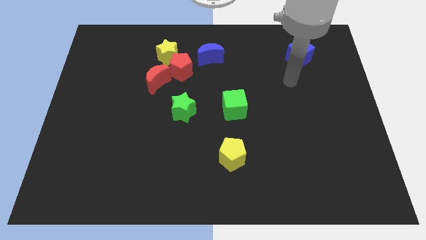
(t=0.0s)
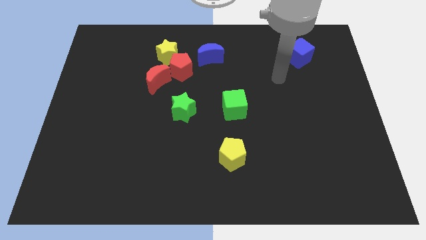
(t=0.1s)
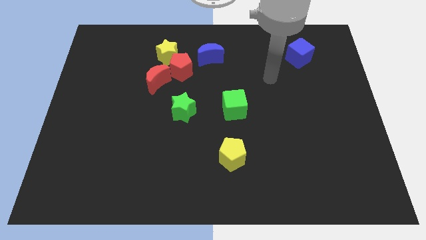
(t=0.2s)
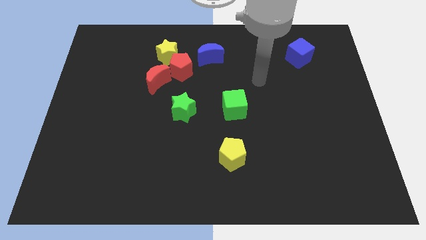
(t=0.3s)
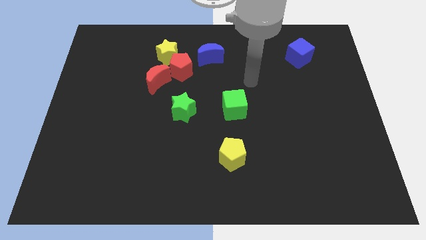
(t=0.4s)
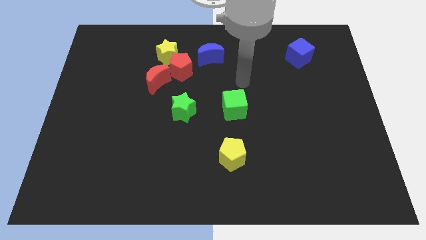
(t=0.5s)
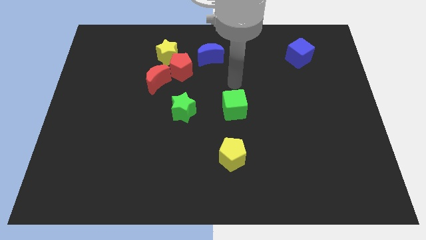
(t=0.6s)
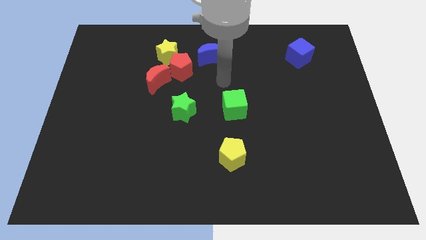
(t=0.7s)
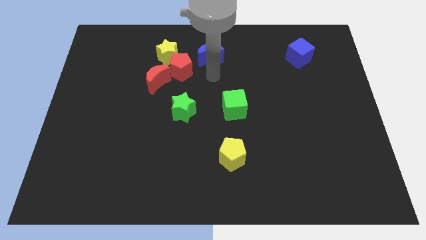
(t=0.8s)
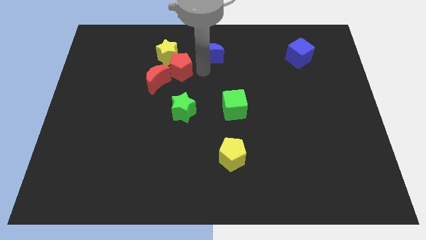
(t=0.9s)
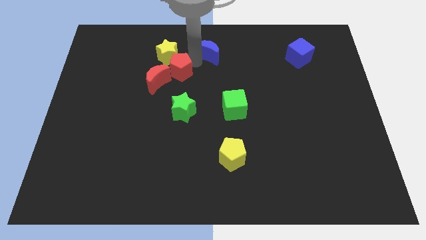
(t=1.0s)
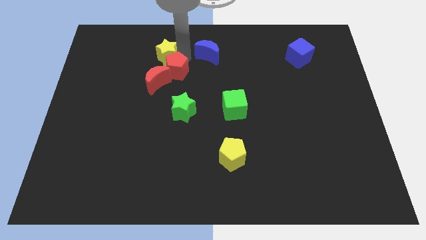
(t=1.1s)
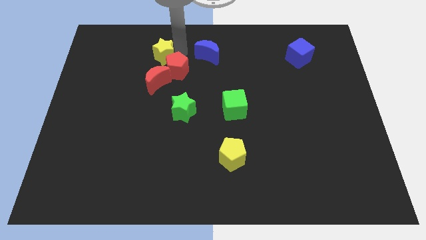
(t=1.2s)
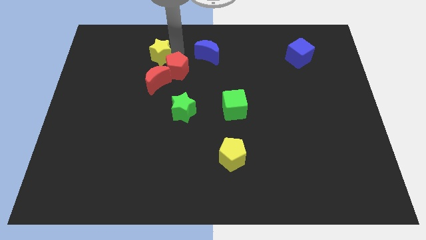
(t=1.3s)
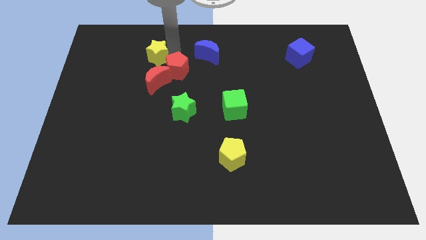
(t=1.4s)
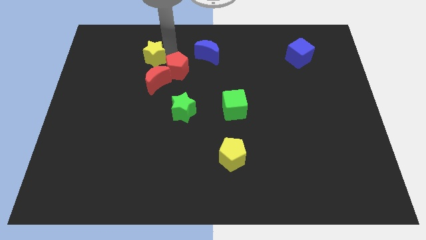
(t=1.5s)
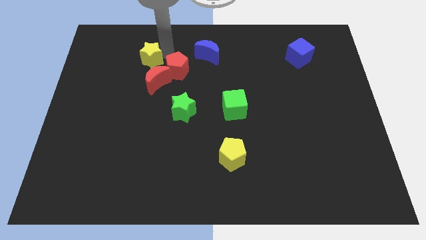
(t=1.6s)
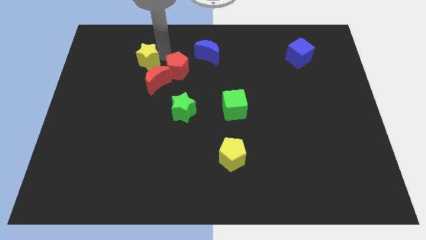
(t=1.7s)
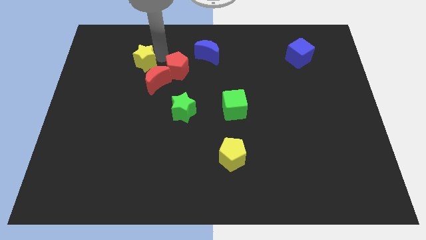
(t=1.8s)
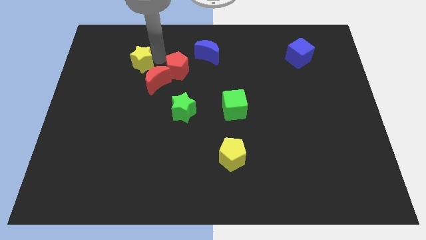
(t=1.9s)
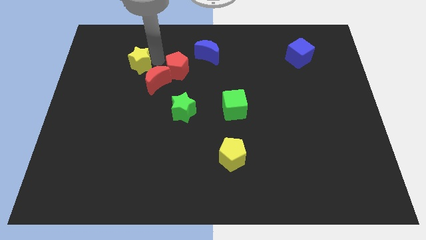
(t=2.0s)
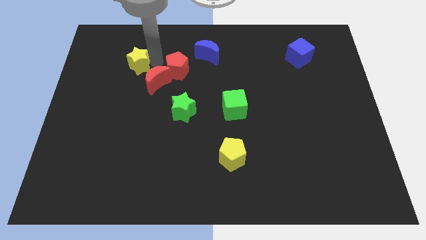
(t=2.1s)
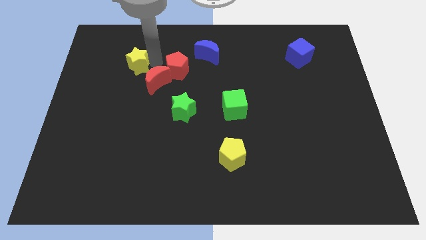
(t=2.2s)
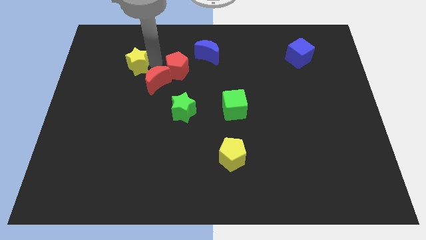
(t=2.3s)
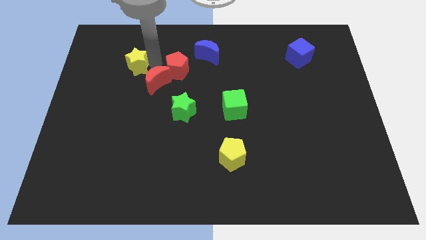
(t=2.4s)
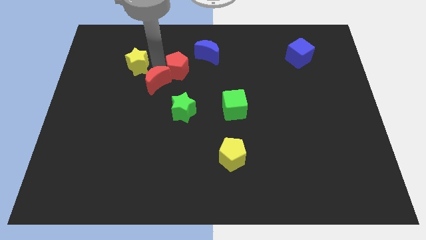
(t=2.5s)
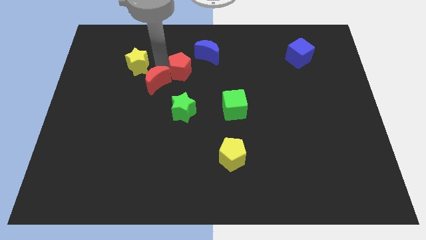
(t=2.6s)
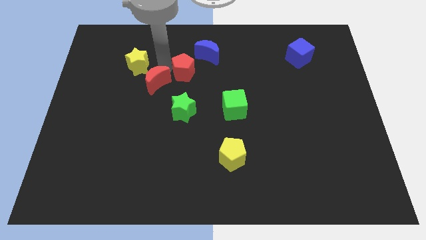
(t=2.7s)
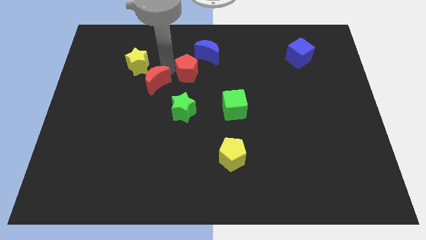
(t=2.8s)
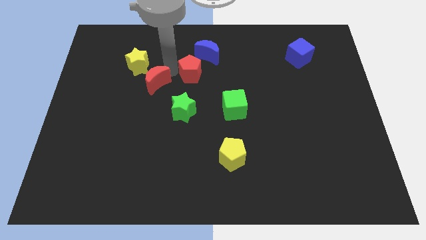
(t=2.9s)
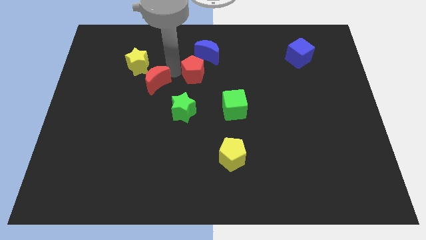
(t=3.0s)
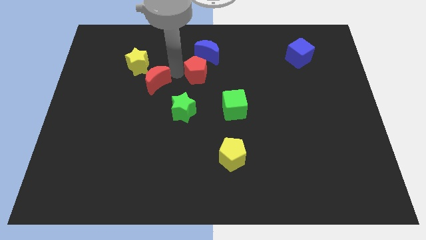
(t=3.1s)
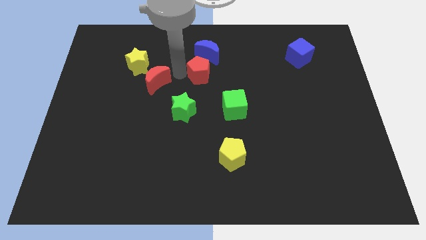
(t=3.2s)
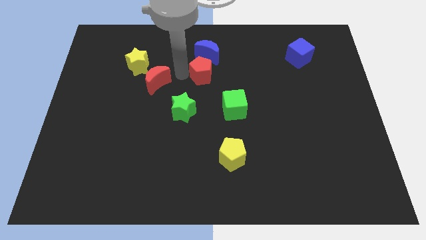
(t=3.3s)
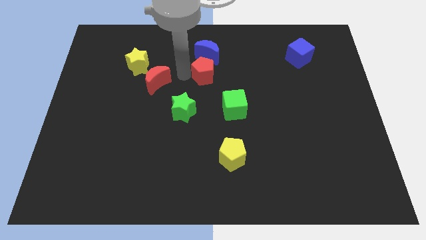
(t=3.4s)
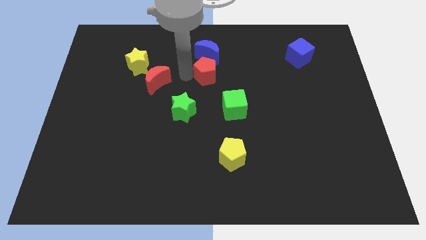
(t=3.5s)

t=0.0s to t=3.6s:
pull the red pentagon apart from the yellow star, red moon, and blue moon

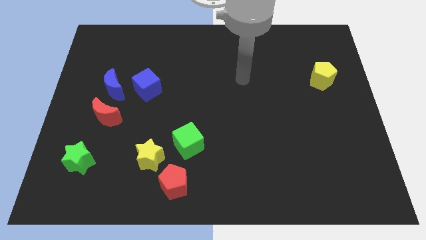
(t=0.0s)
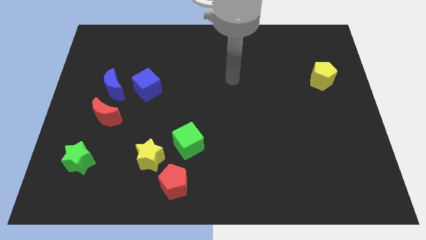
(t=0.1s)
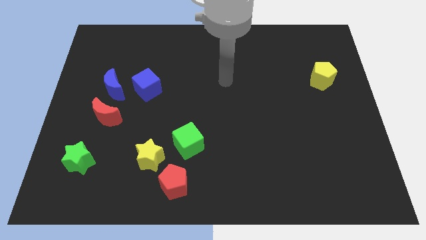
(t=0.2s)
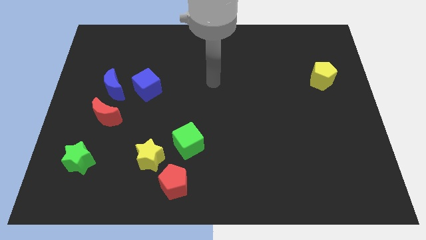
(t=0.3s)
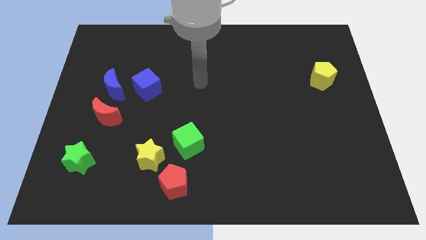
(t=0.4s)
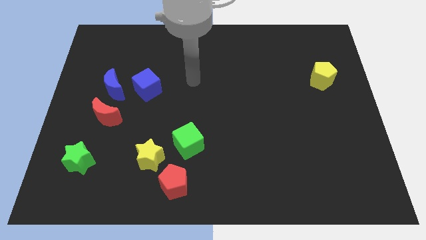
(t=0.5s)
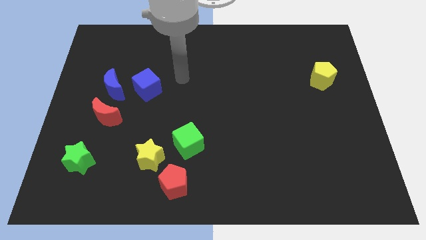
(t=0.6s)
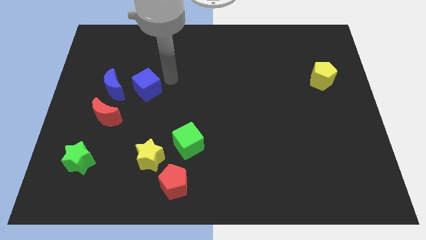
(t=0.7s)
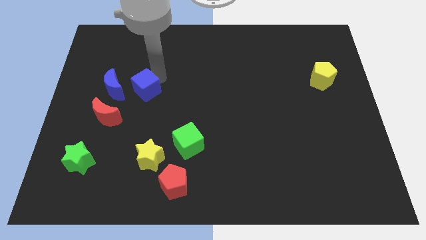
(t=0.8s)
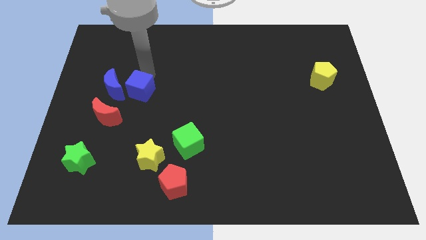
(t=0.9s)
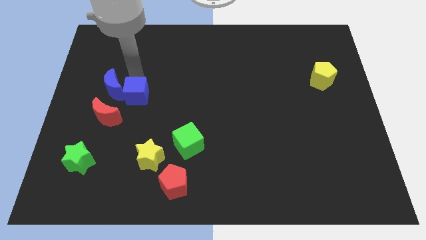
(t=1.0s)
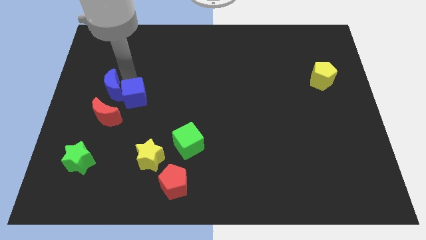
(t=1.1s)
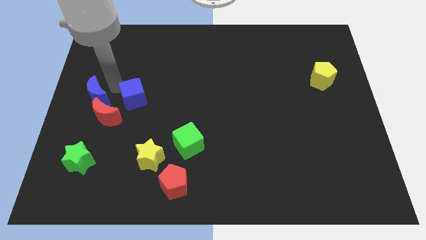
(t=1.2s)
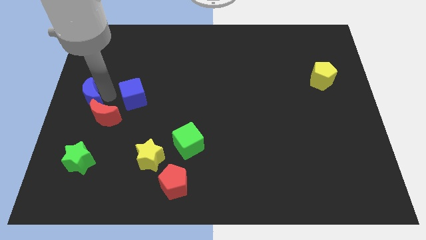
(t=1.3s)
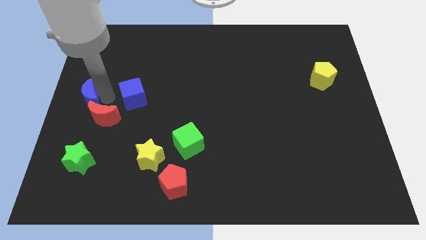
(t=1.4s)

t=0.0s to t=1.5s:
separate the blue cube from the blue moon

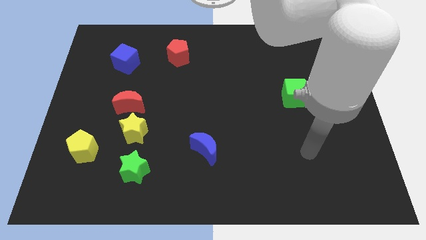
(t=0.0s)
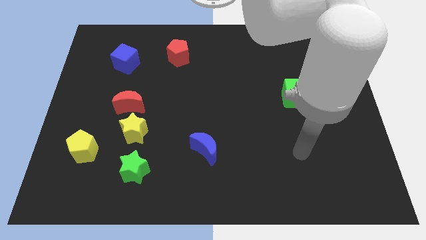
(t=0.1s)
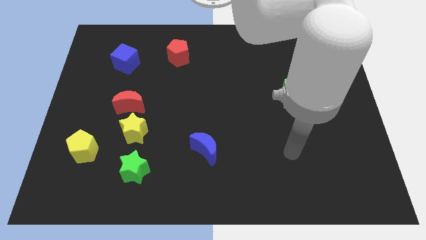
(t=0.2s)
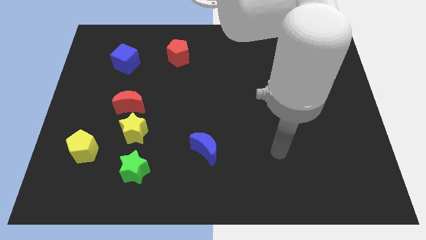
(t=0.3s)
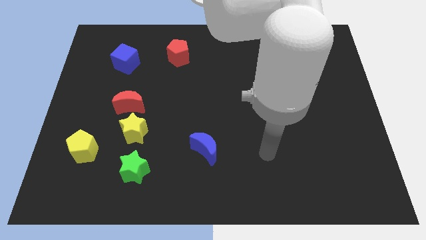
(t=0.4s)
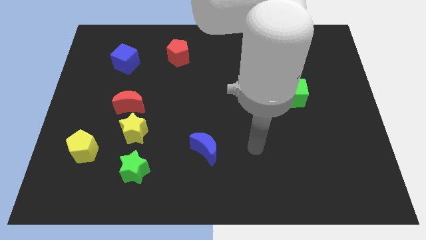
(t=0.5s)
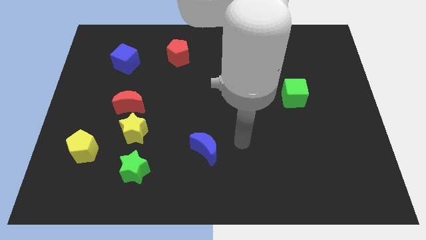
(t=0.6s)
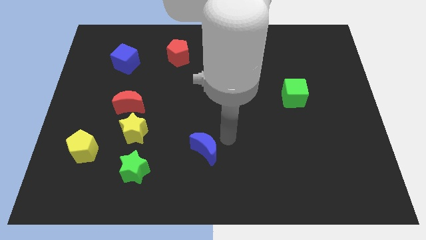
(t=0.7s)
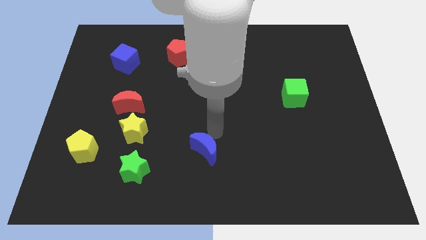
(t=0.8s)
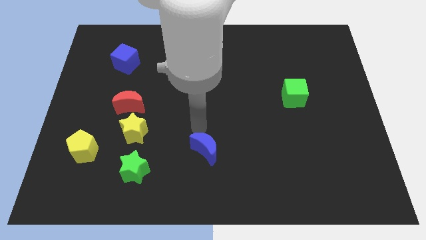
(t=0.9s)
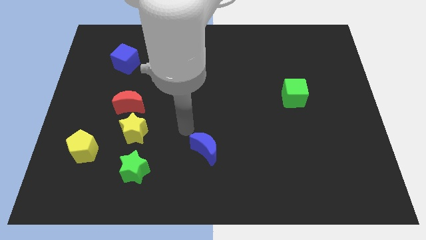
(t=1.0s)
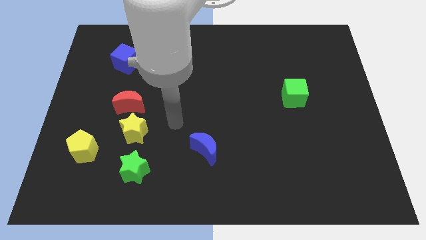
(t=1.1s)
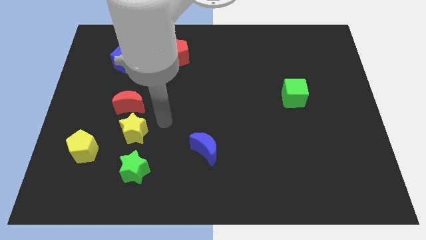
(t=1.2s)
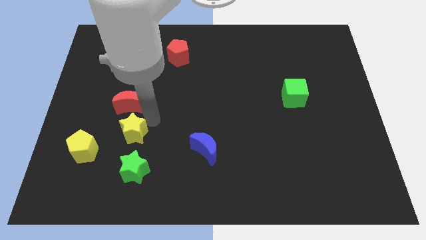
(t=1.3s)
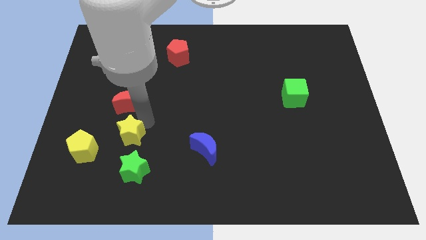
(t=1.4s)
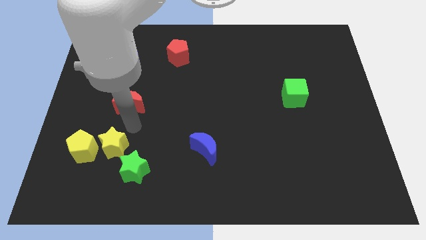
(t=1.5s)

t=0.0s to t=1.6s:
pull the red moon apart from the yellow star

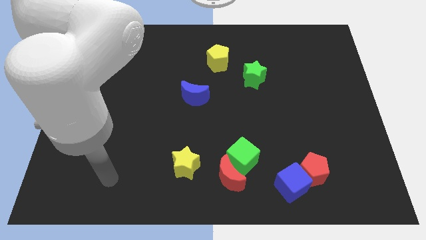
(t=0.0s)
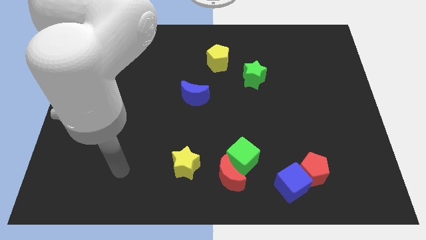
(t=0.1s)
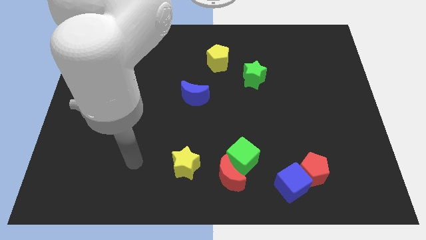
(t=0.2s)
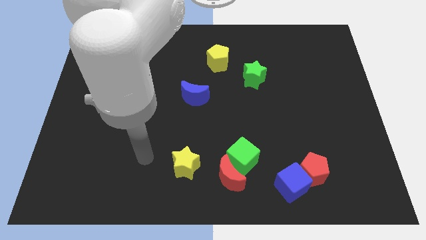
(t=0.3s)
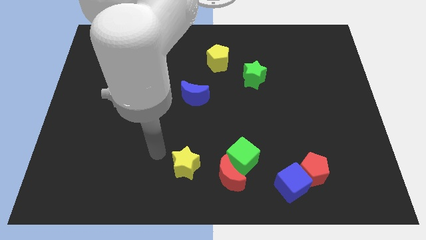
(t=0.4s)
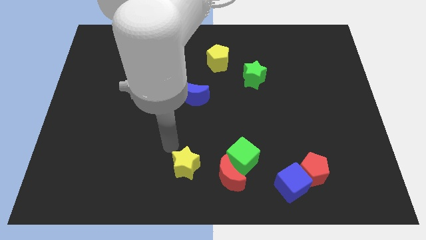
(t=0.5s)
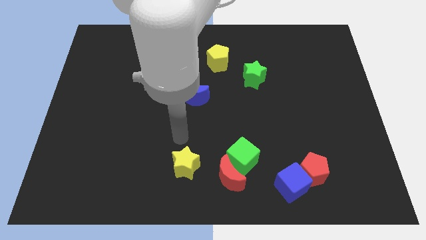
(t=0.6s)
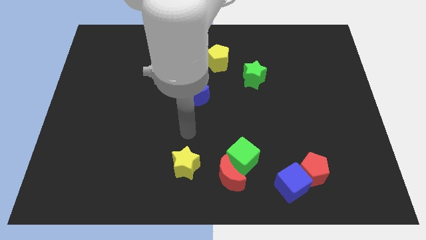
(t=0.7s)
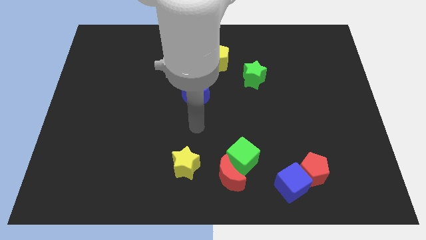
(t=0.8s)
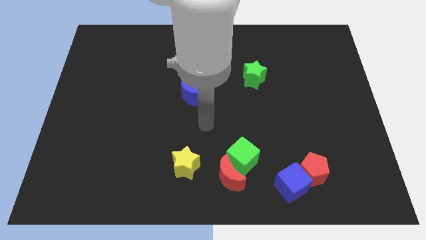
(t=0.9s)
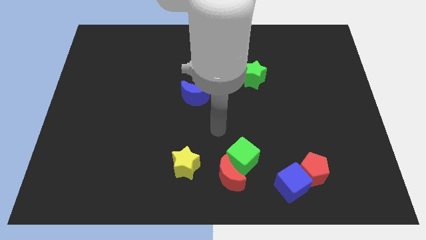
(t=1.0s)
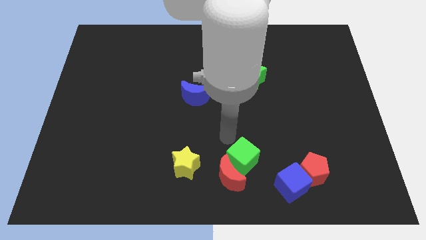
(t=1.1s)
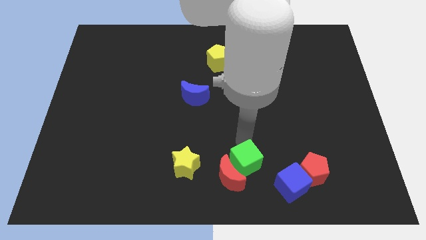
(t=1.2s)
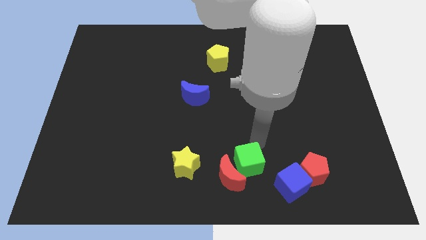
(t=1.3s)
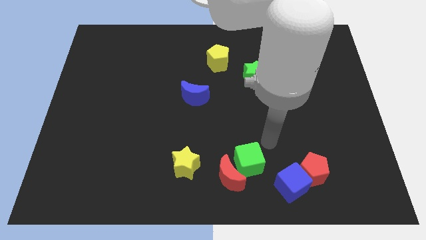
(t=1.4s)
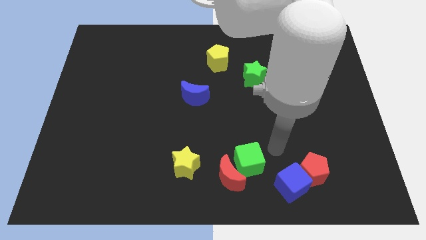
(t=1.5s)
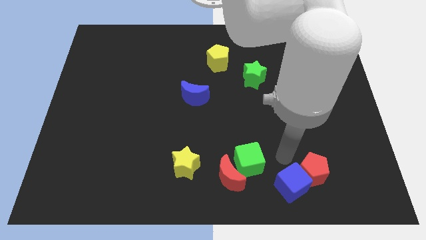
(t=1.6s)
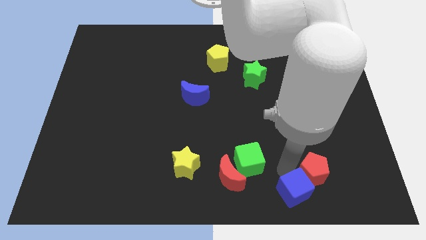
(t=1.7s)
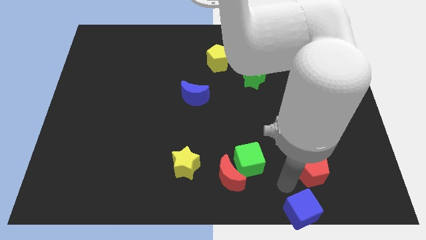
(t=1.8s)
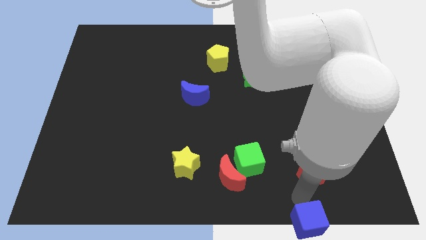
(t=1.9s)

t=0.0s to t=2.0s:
separate the red pentagon from the blue cube

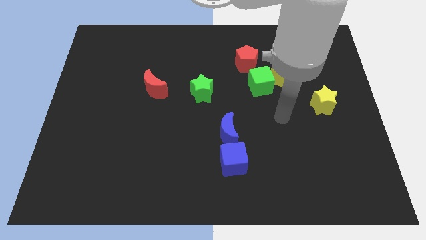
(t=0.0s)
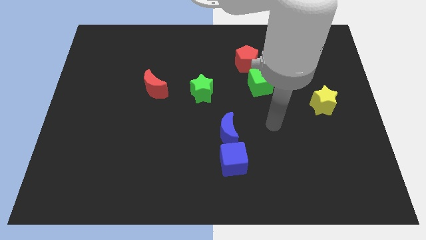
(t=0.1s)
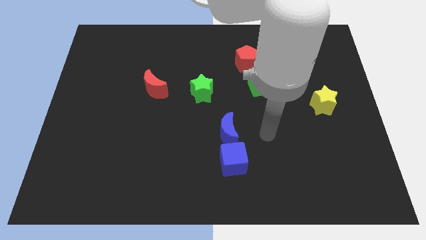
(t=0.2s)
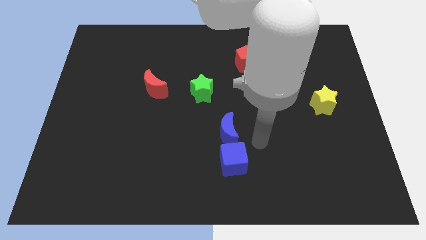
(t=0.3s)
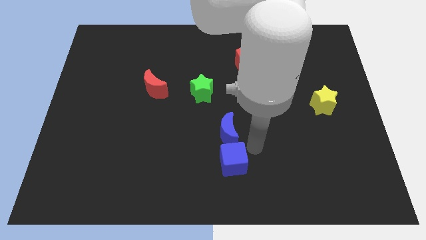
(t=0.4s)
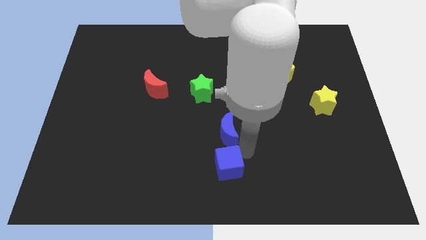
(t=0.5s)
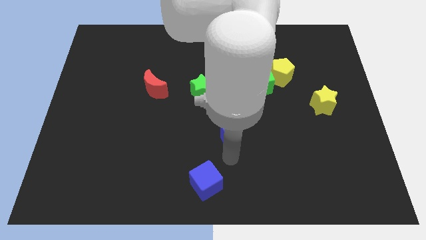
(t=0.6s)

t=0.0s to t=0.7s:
move the blue moon away from the blue cube

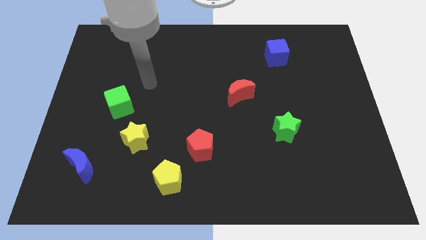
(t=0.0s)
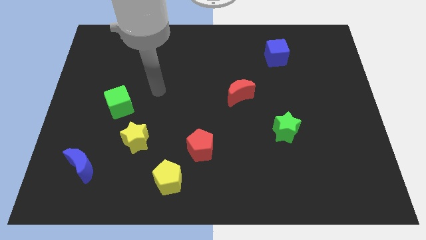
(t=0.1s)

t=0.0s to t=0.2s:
separate the red pentagon from the yellow pentagon
